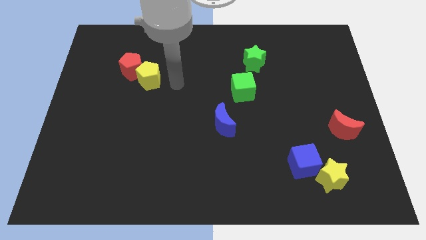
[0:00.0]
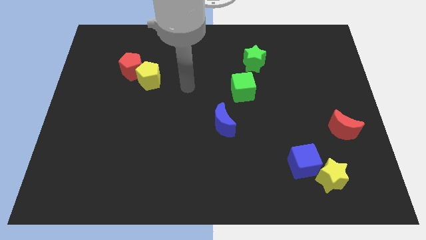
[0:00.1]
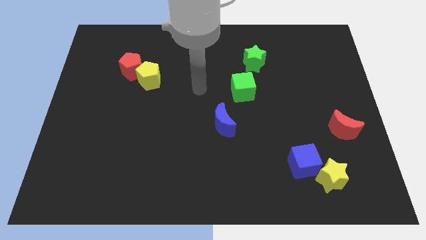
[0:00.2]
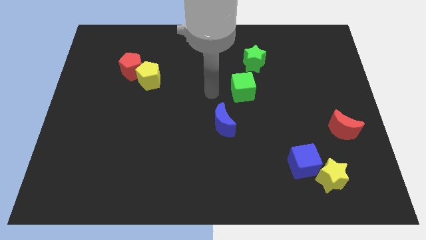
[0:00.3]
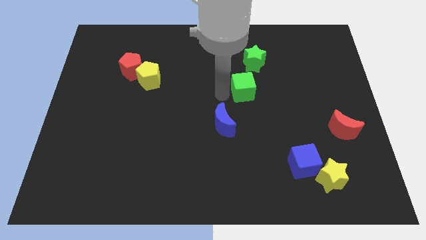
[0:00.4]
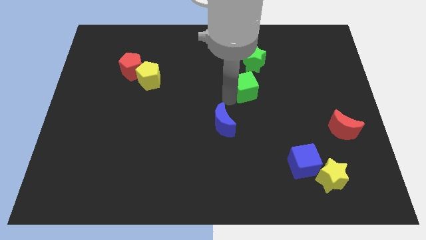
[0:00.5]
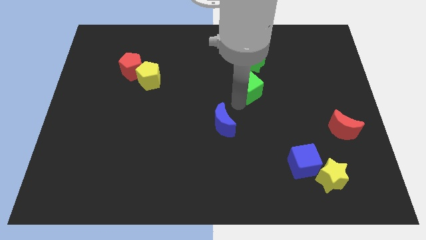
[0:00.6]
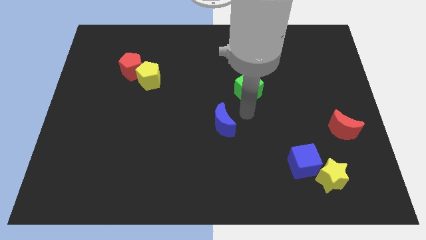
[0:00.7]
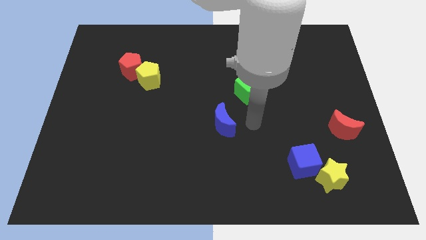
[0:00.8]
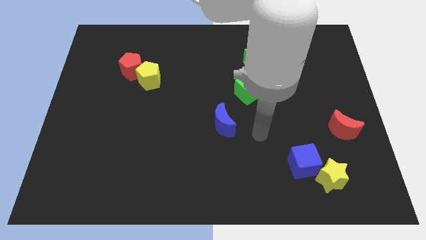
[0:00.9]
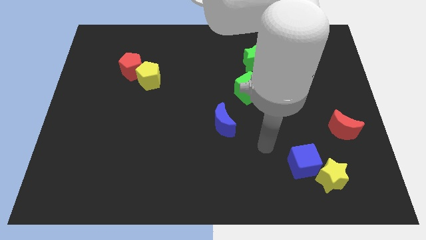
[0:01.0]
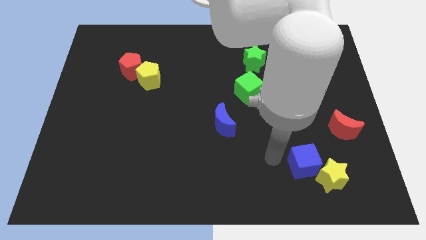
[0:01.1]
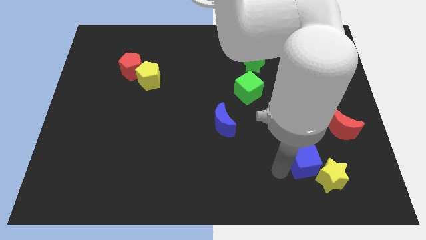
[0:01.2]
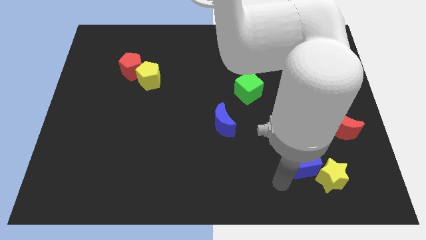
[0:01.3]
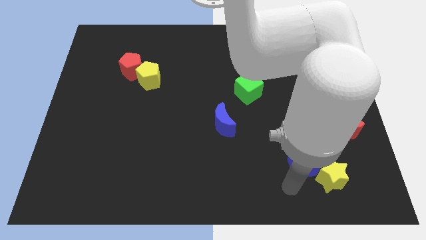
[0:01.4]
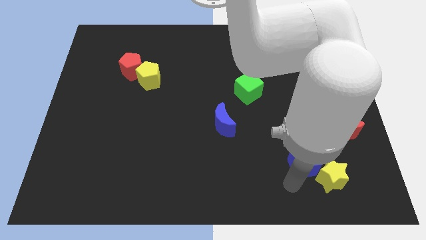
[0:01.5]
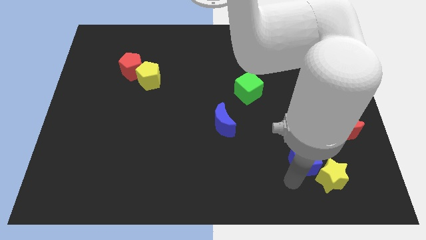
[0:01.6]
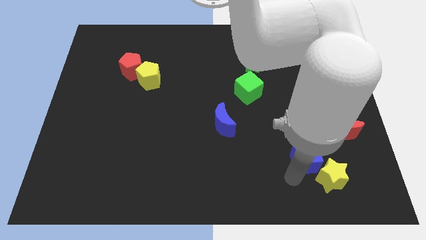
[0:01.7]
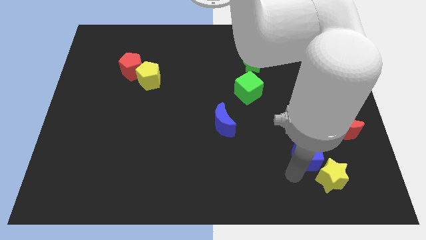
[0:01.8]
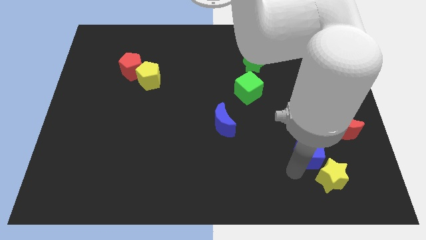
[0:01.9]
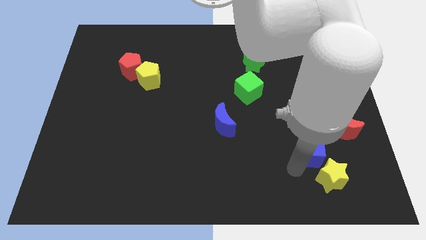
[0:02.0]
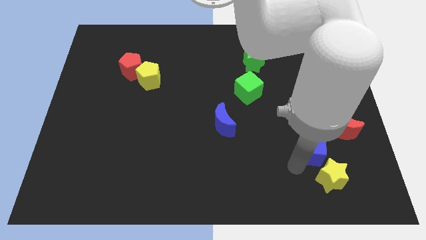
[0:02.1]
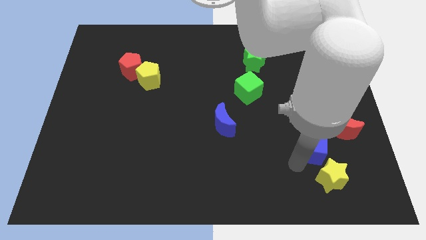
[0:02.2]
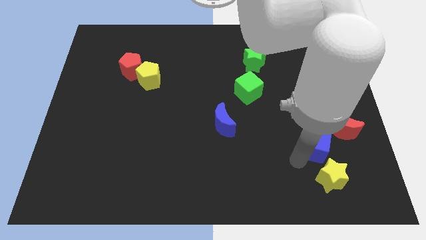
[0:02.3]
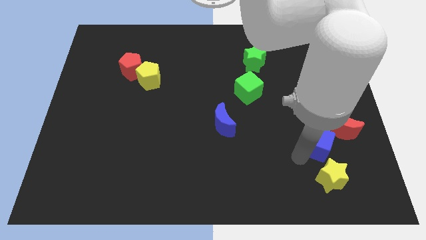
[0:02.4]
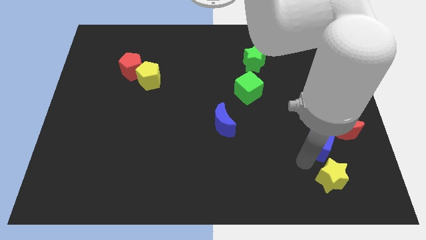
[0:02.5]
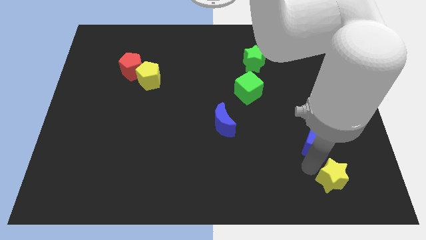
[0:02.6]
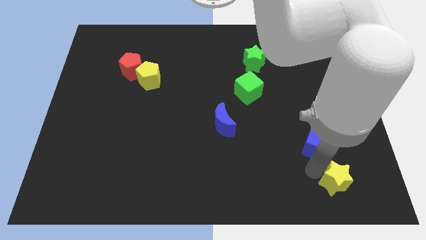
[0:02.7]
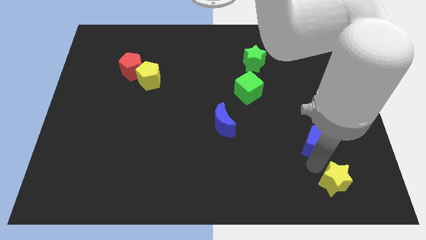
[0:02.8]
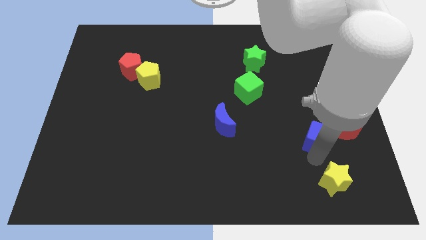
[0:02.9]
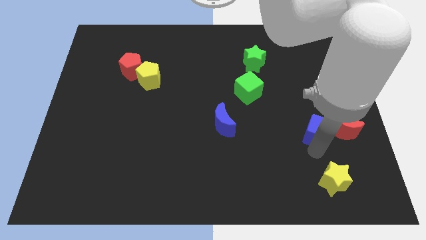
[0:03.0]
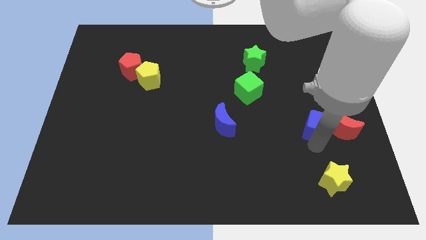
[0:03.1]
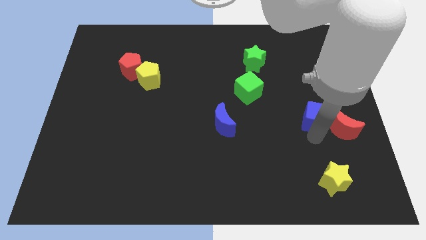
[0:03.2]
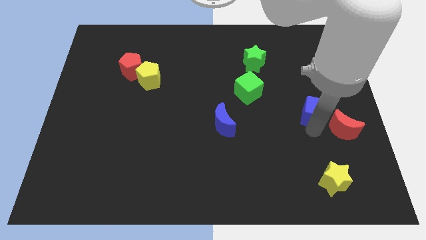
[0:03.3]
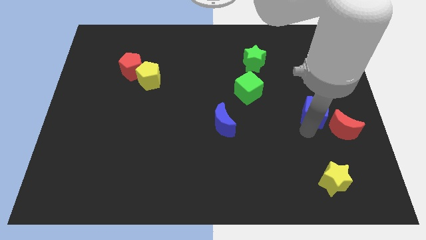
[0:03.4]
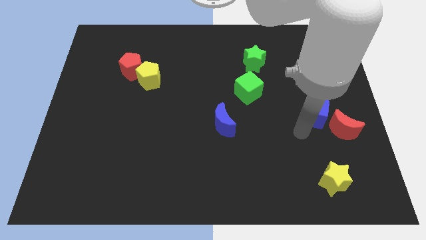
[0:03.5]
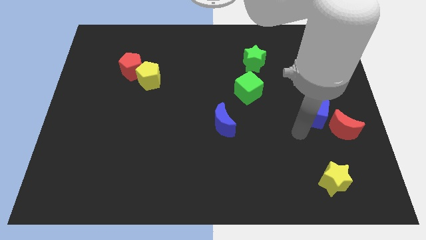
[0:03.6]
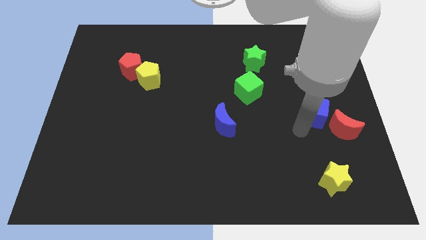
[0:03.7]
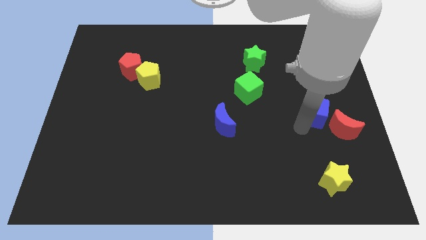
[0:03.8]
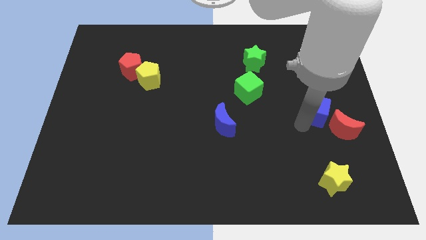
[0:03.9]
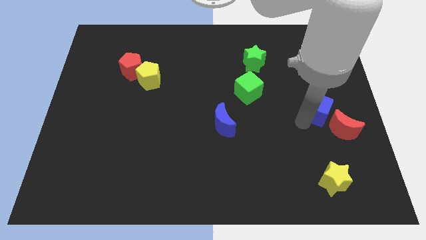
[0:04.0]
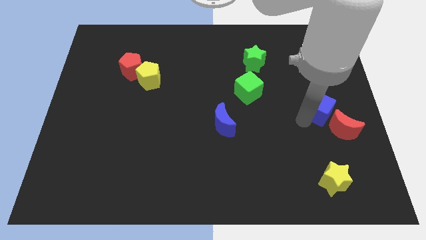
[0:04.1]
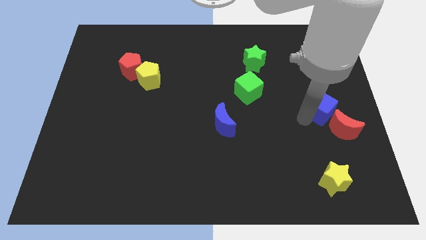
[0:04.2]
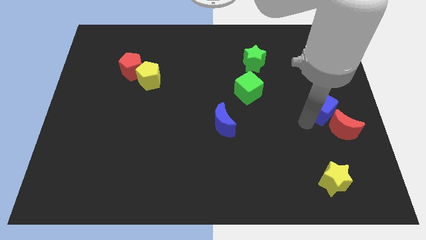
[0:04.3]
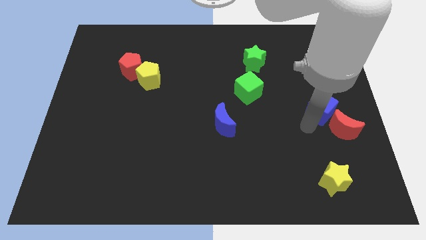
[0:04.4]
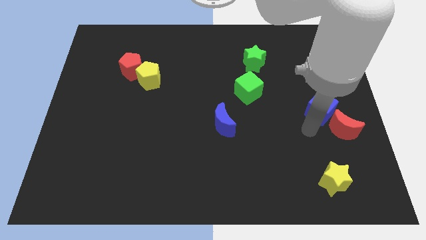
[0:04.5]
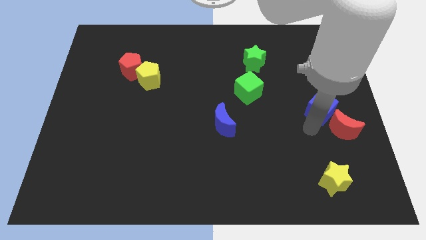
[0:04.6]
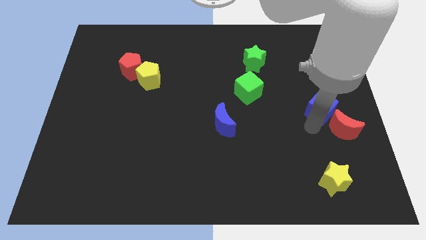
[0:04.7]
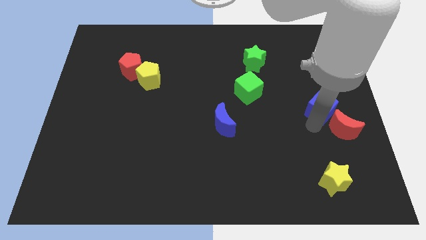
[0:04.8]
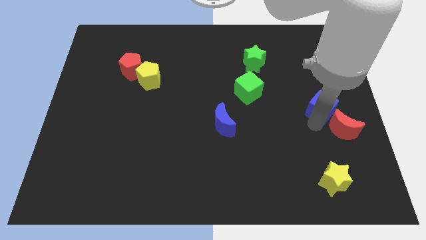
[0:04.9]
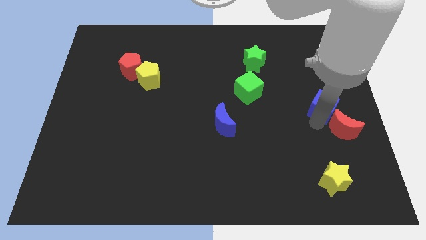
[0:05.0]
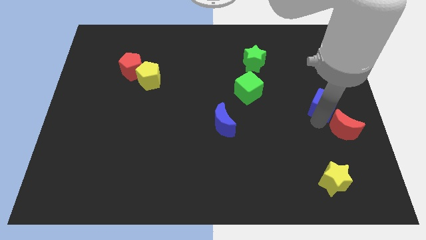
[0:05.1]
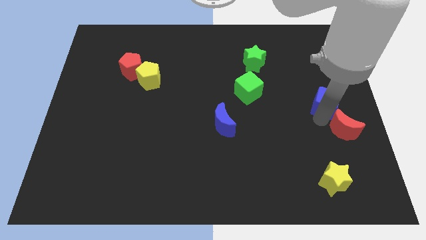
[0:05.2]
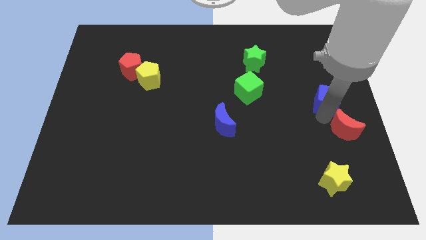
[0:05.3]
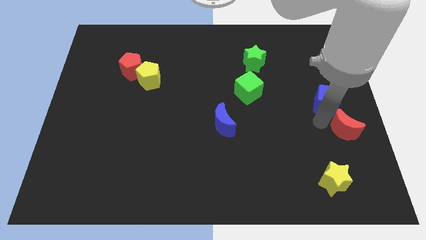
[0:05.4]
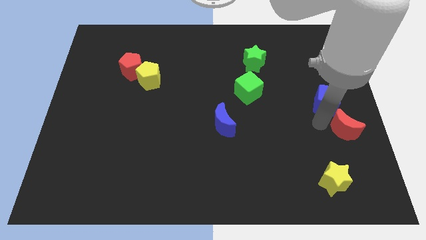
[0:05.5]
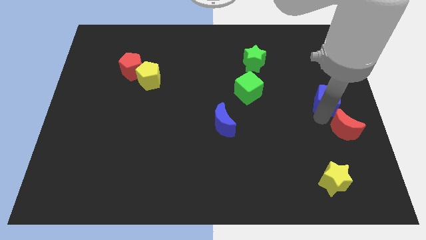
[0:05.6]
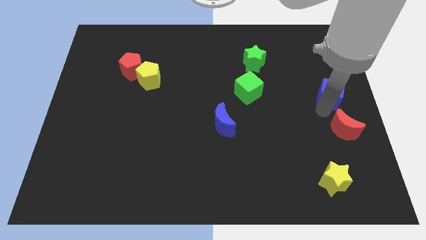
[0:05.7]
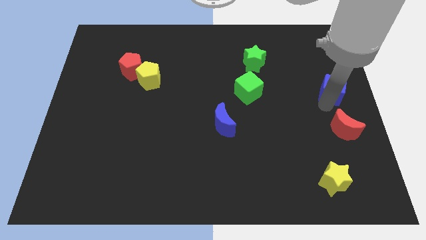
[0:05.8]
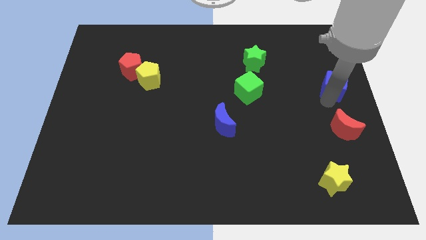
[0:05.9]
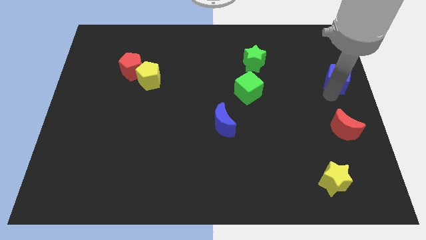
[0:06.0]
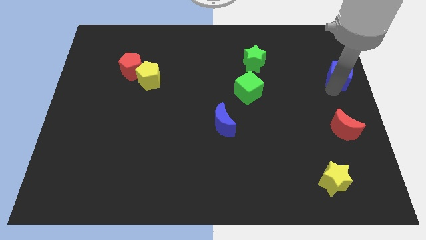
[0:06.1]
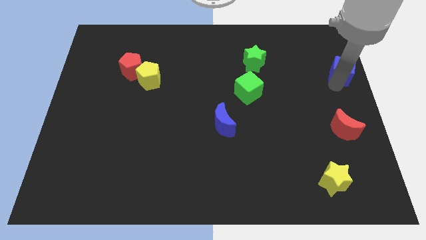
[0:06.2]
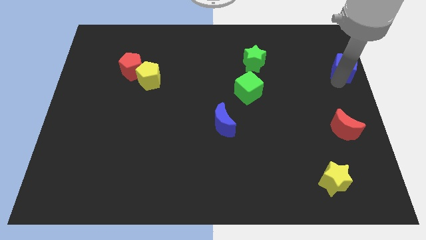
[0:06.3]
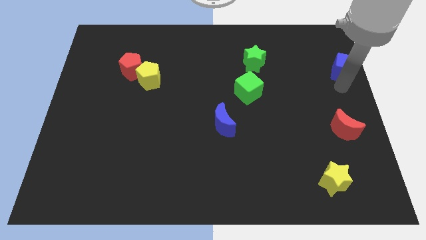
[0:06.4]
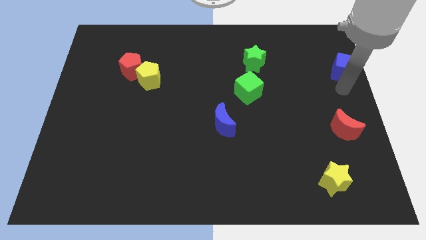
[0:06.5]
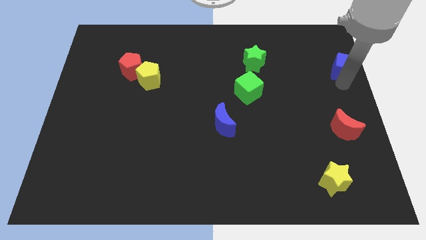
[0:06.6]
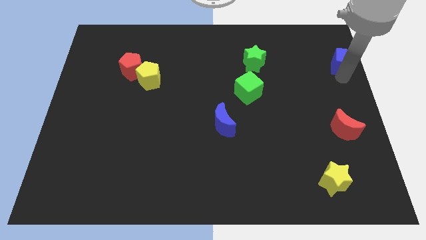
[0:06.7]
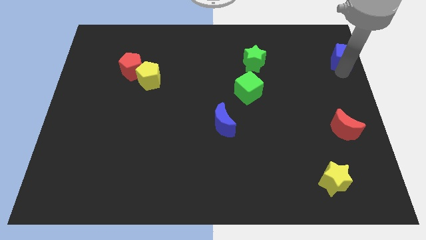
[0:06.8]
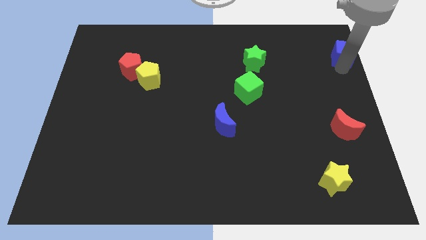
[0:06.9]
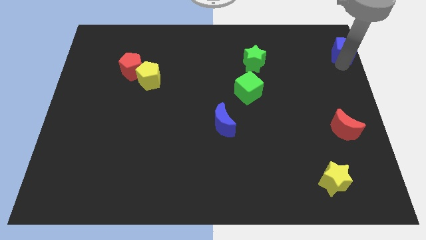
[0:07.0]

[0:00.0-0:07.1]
push the blue cube to the upper right corner
